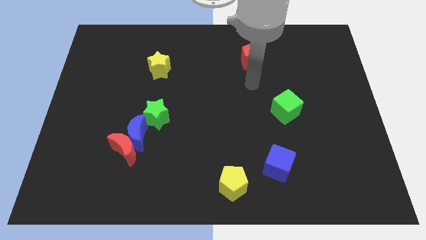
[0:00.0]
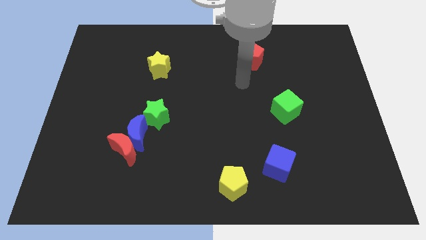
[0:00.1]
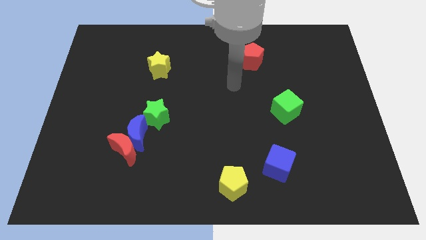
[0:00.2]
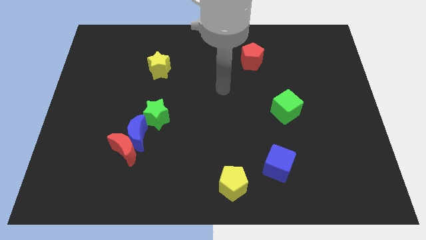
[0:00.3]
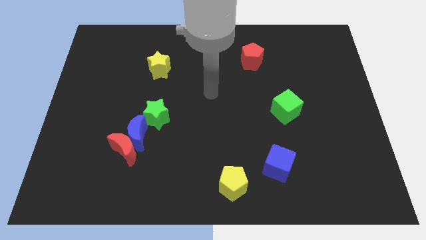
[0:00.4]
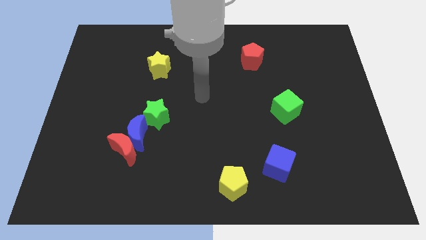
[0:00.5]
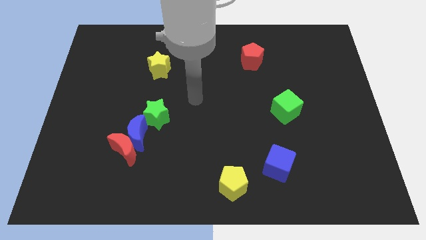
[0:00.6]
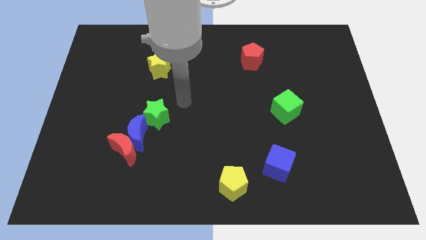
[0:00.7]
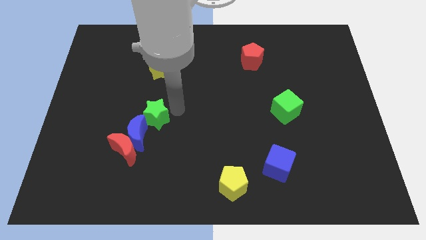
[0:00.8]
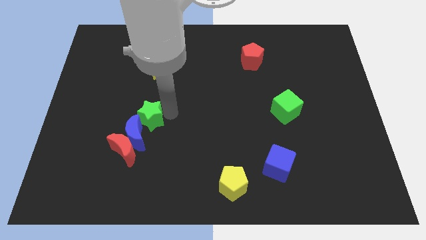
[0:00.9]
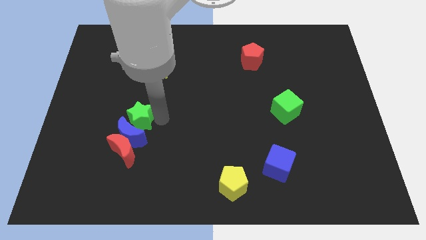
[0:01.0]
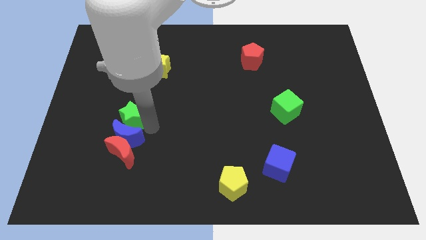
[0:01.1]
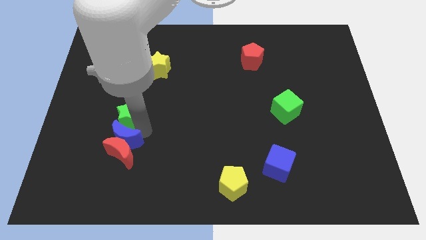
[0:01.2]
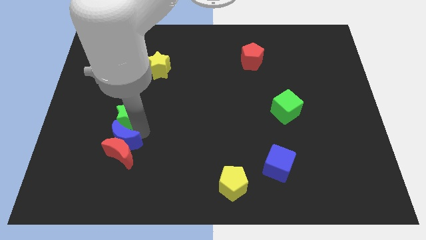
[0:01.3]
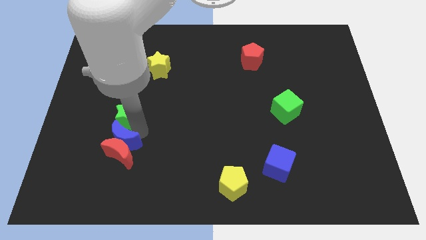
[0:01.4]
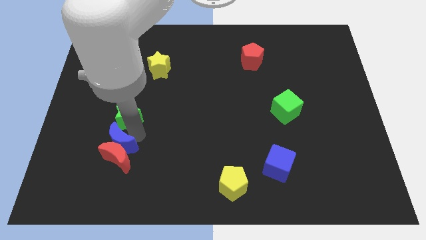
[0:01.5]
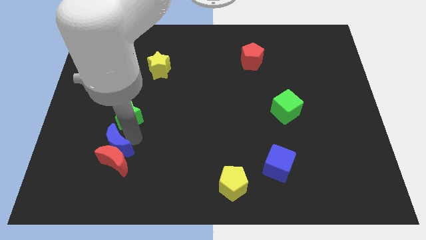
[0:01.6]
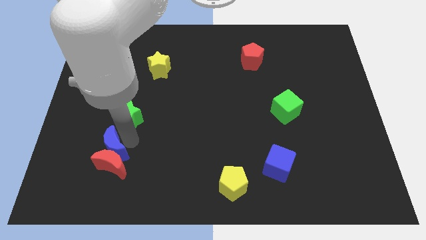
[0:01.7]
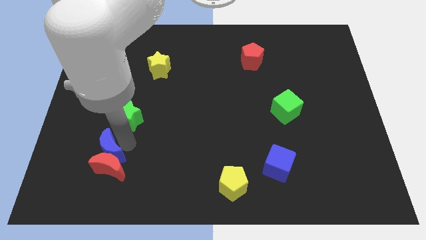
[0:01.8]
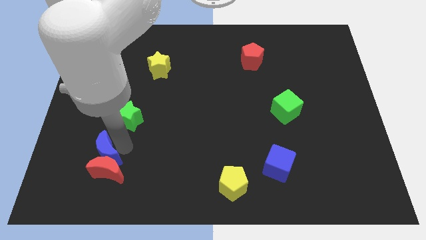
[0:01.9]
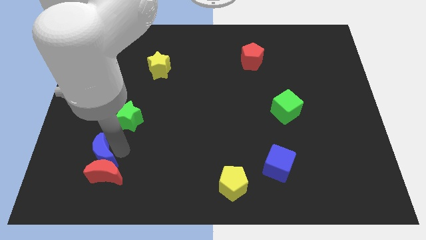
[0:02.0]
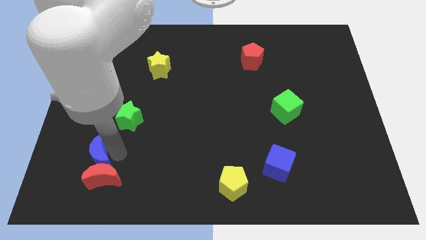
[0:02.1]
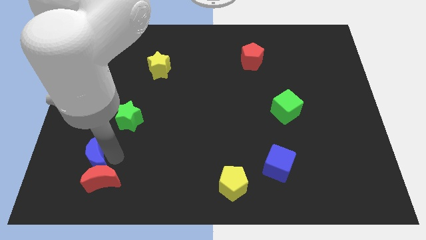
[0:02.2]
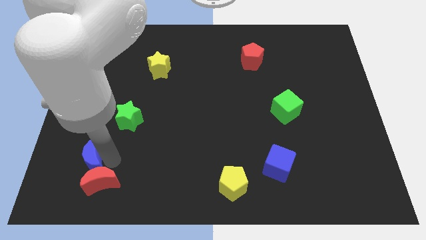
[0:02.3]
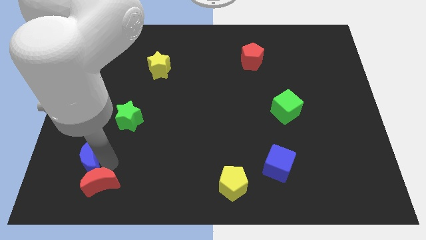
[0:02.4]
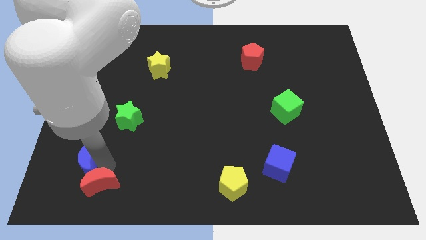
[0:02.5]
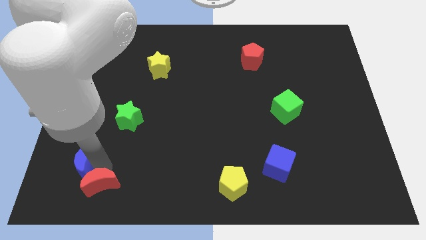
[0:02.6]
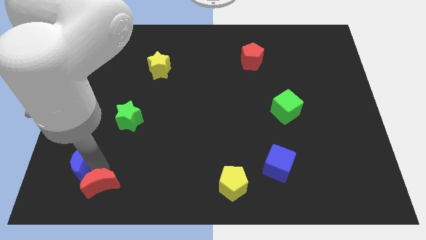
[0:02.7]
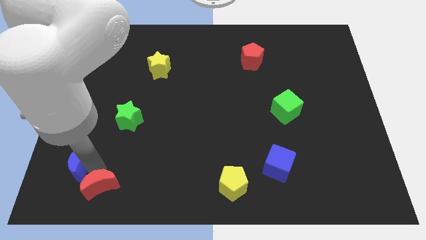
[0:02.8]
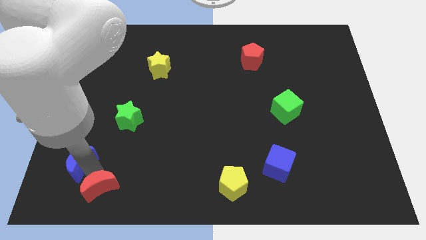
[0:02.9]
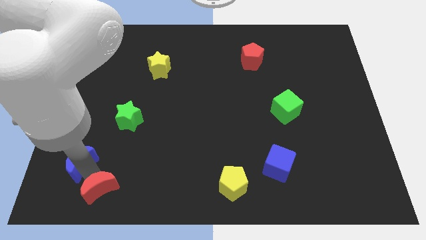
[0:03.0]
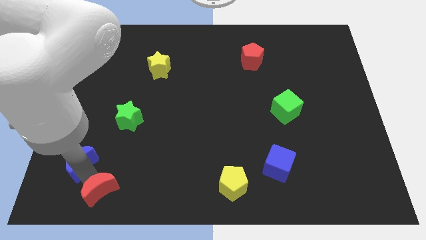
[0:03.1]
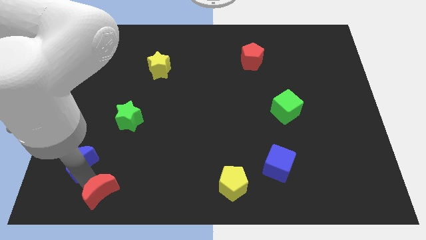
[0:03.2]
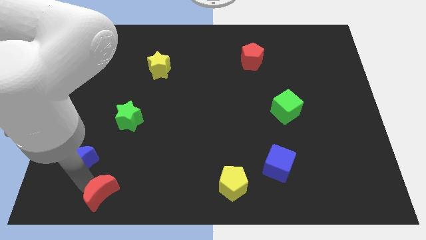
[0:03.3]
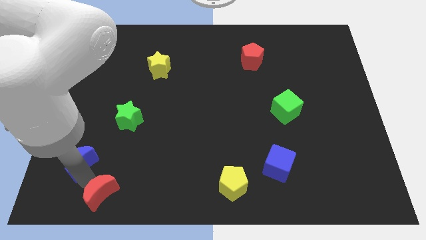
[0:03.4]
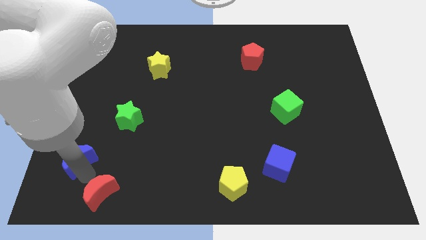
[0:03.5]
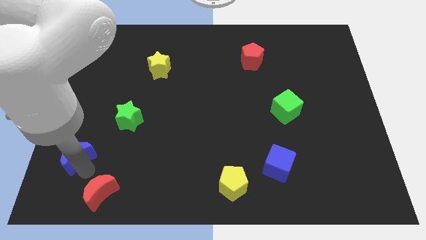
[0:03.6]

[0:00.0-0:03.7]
move the red moon away from the blue moon

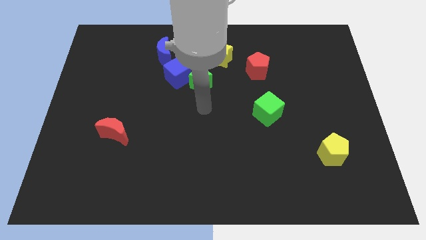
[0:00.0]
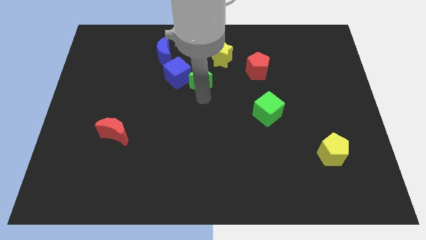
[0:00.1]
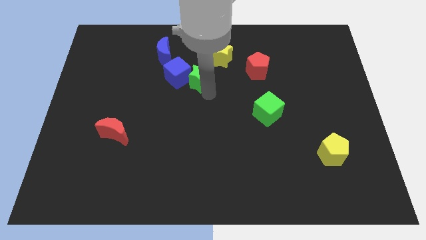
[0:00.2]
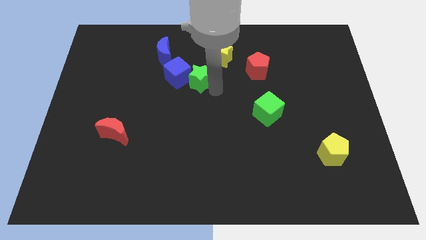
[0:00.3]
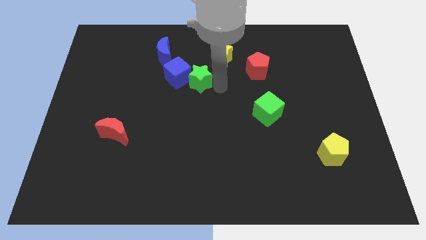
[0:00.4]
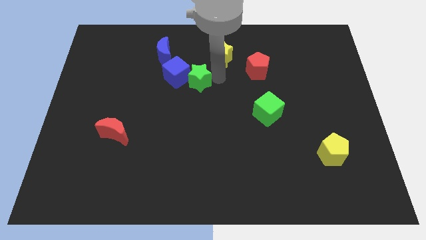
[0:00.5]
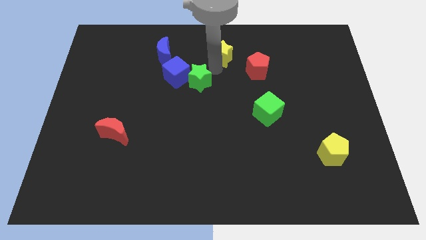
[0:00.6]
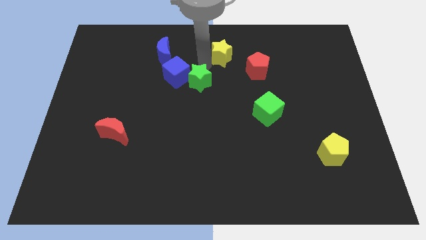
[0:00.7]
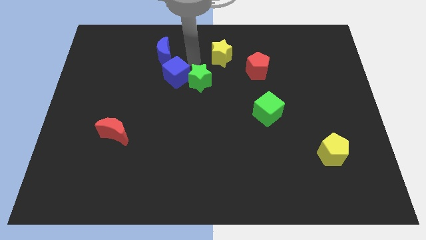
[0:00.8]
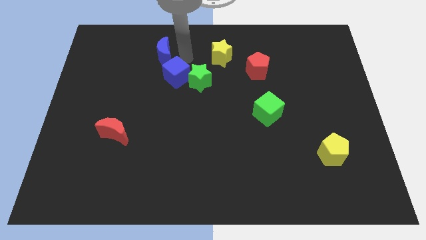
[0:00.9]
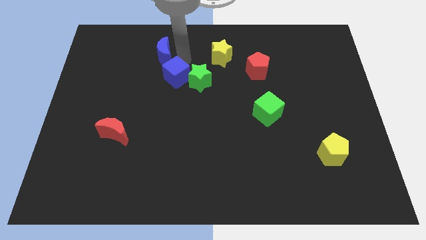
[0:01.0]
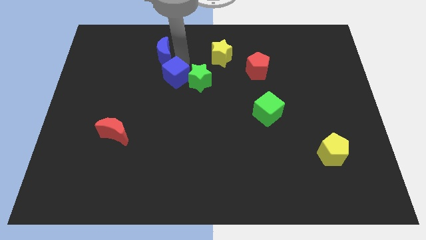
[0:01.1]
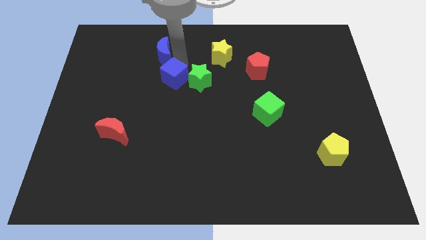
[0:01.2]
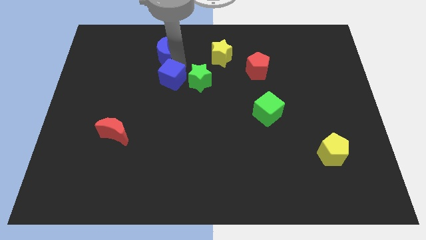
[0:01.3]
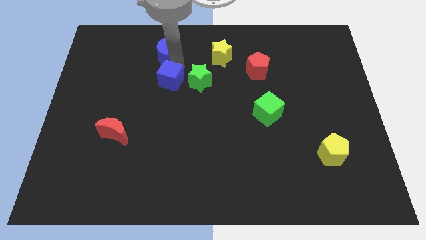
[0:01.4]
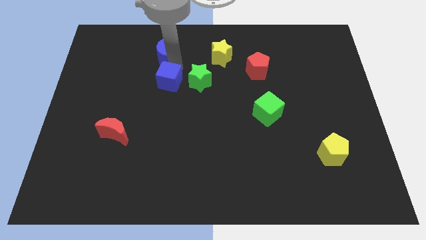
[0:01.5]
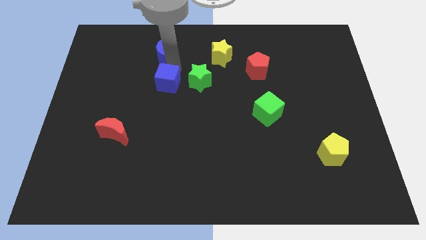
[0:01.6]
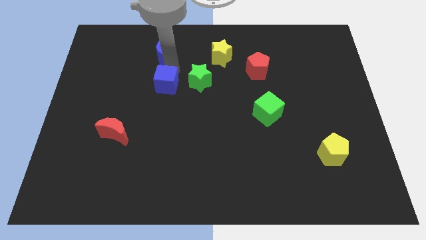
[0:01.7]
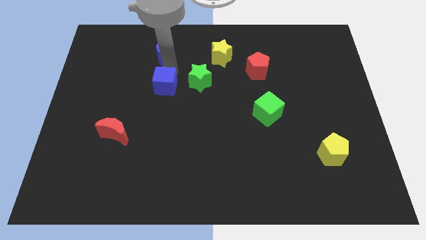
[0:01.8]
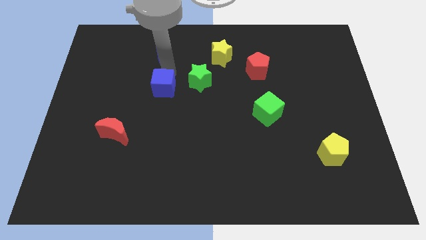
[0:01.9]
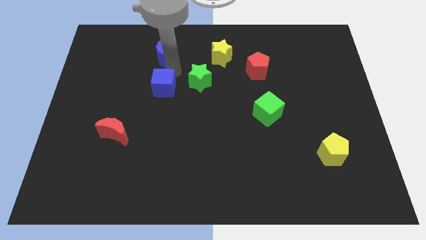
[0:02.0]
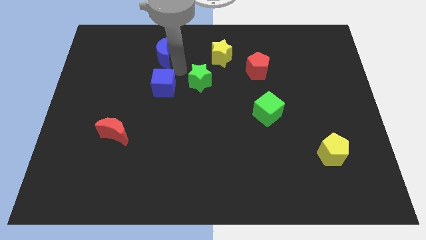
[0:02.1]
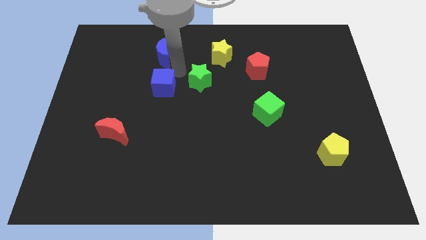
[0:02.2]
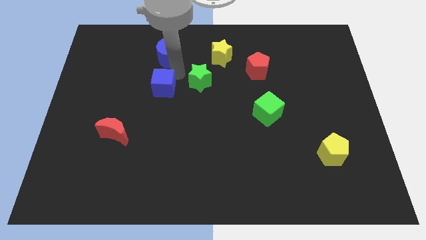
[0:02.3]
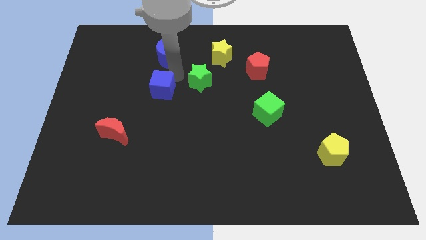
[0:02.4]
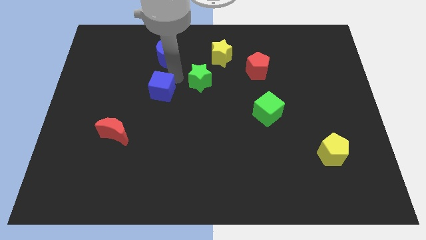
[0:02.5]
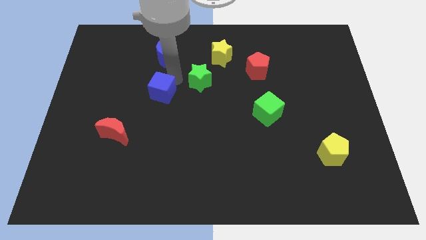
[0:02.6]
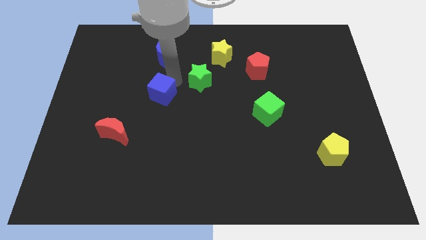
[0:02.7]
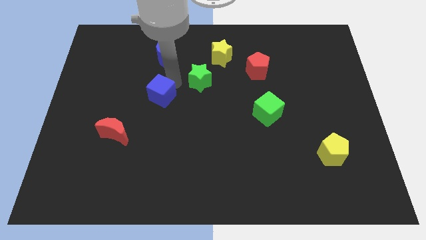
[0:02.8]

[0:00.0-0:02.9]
separate the blue cube from the green star and blue moon

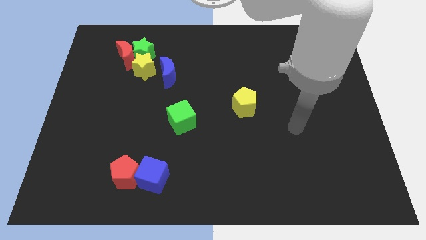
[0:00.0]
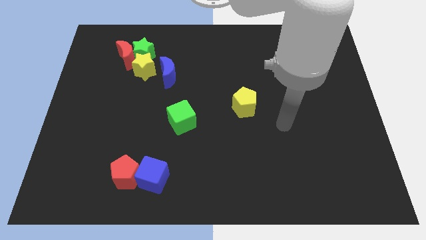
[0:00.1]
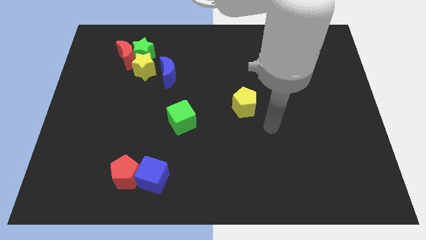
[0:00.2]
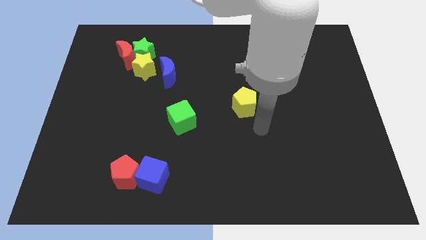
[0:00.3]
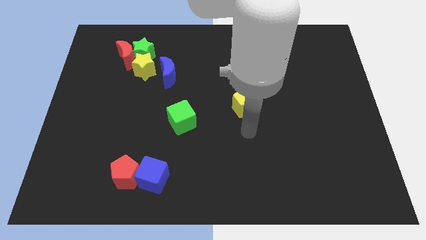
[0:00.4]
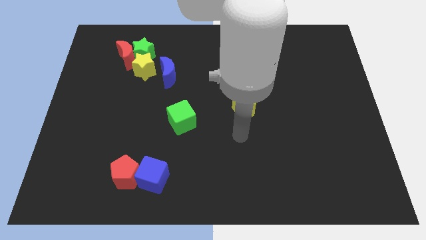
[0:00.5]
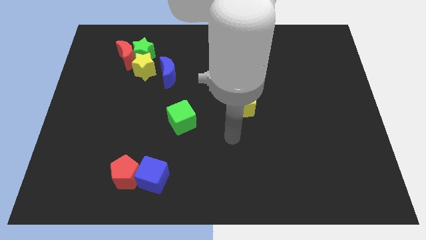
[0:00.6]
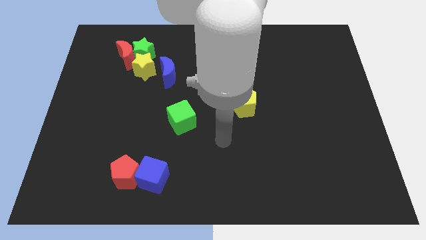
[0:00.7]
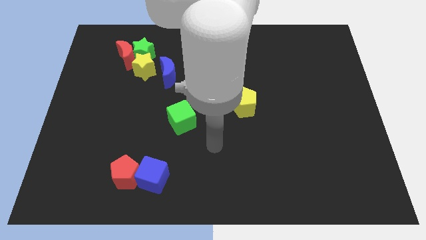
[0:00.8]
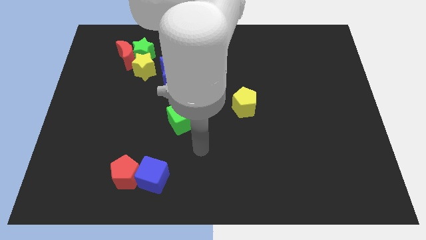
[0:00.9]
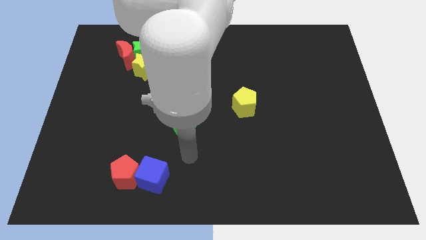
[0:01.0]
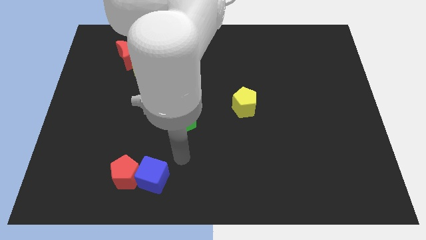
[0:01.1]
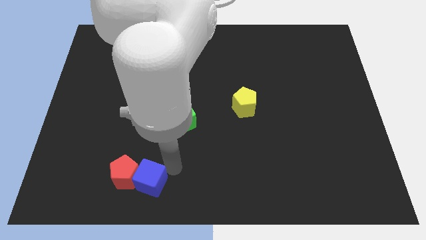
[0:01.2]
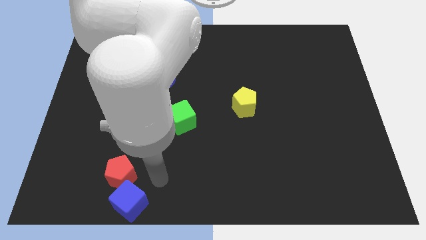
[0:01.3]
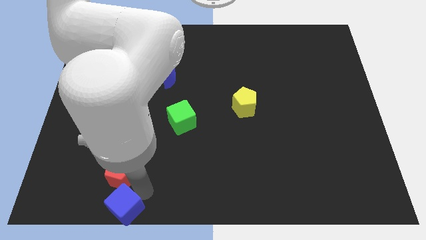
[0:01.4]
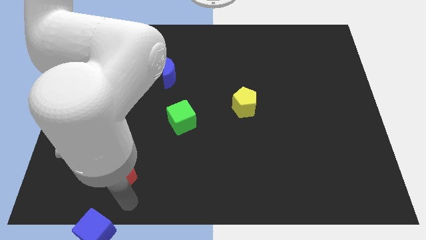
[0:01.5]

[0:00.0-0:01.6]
separate the red pentagon from the blue cube

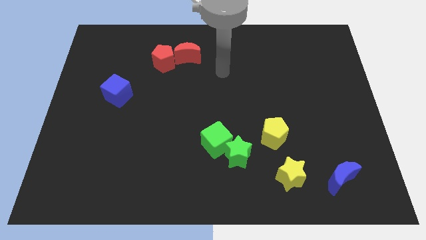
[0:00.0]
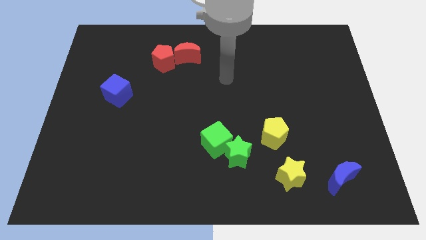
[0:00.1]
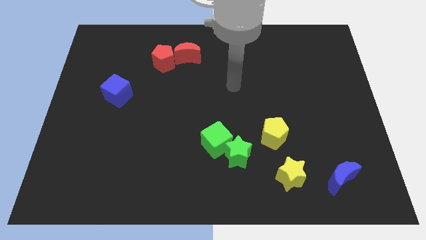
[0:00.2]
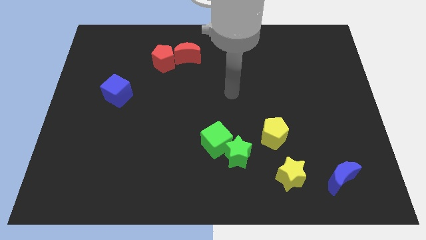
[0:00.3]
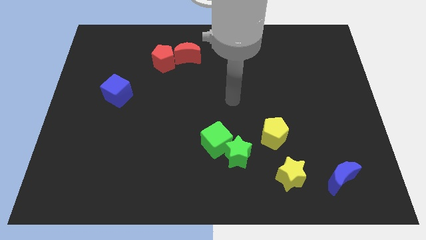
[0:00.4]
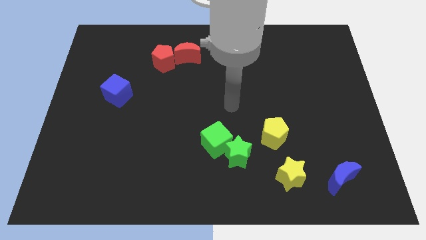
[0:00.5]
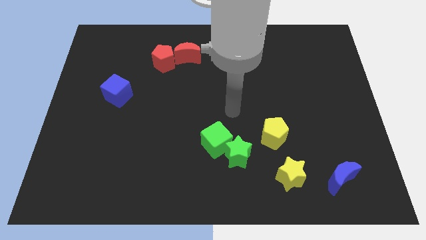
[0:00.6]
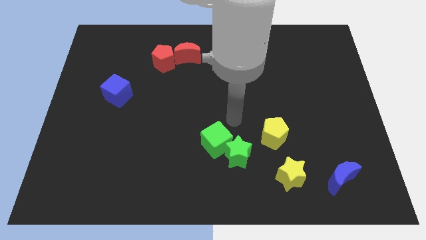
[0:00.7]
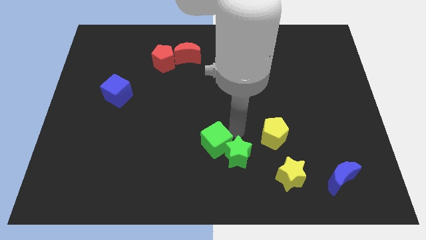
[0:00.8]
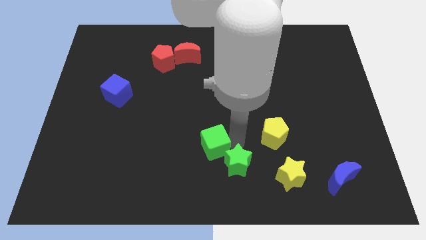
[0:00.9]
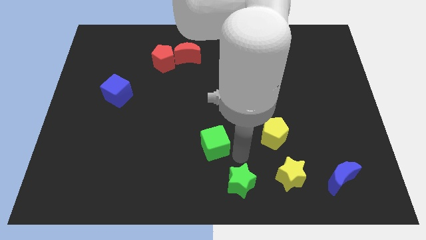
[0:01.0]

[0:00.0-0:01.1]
move the green cube away from the green star

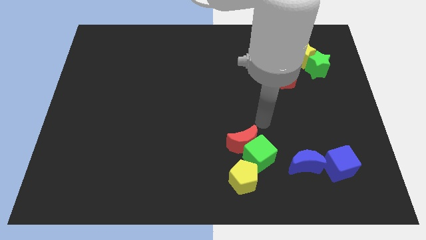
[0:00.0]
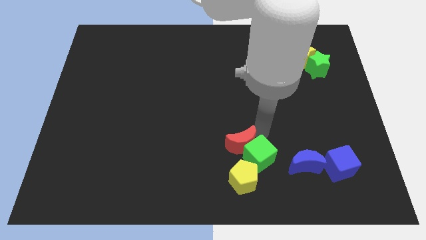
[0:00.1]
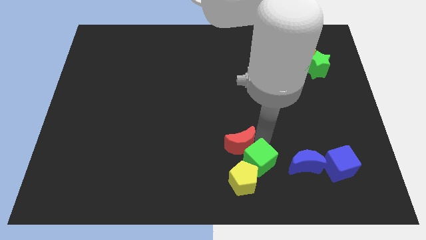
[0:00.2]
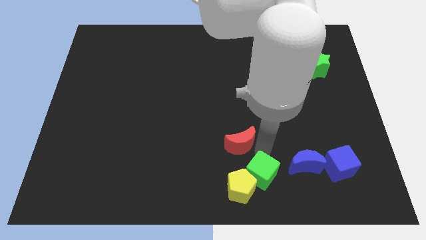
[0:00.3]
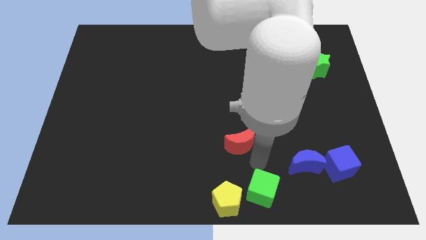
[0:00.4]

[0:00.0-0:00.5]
move the red moon away from the green cube and yellow pentagon
